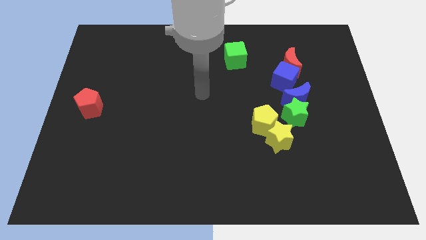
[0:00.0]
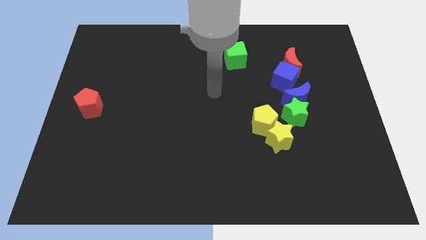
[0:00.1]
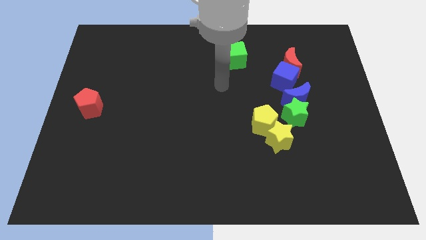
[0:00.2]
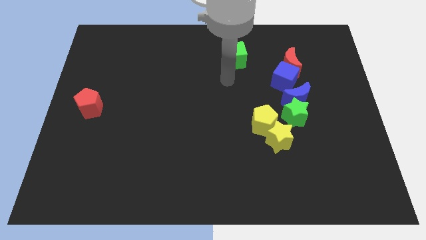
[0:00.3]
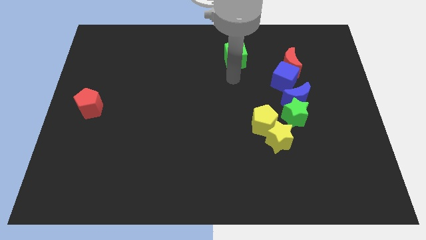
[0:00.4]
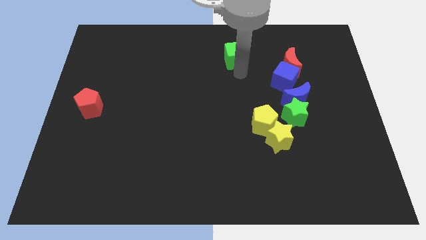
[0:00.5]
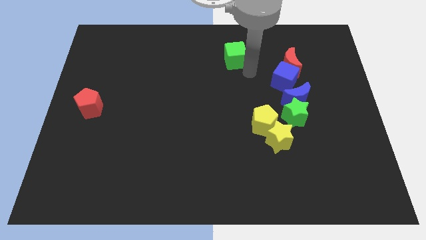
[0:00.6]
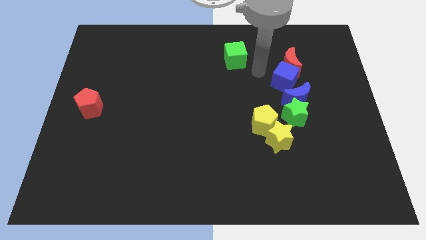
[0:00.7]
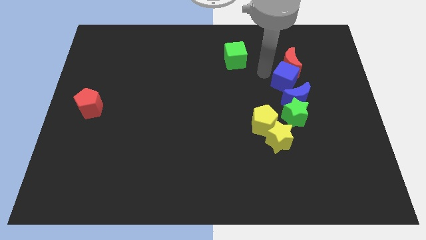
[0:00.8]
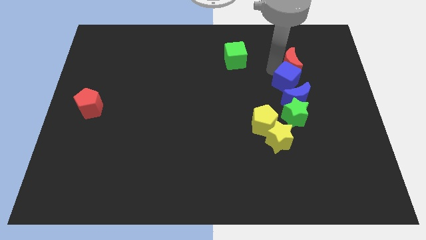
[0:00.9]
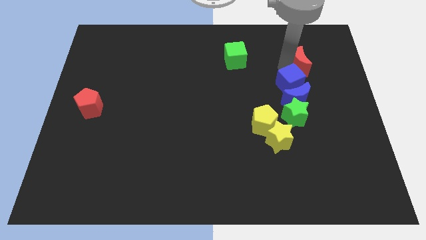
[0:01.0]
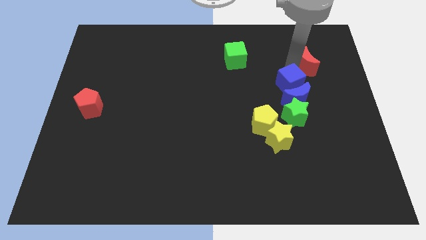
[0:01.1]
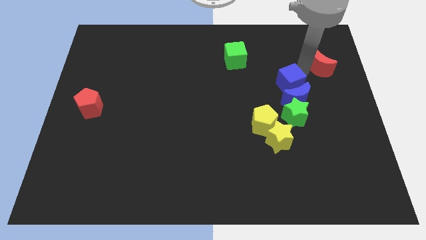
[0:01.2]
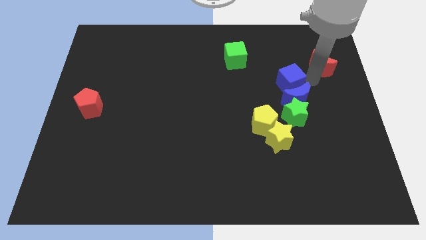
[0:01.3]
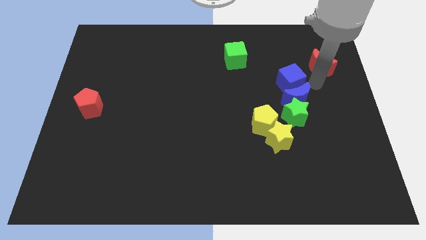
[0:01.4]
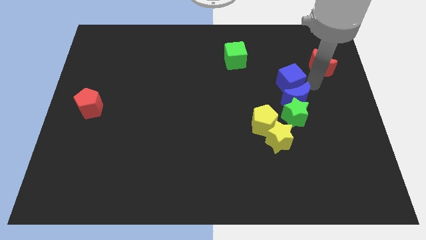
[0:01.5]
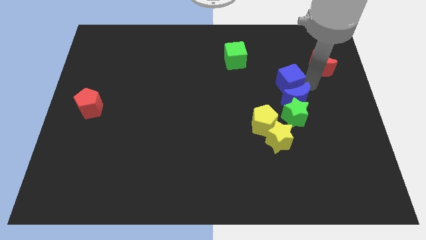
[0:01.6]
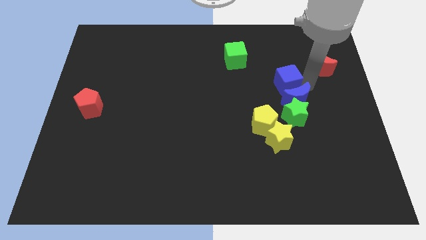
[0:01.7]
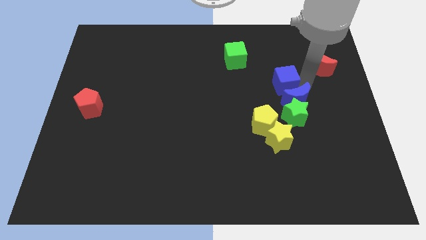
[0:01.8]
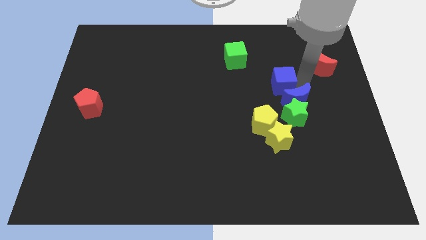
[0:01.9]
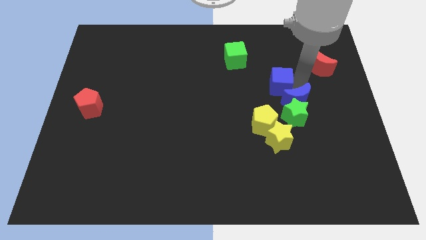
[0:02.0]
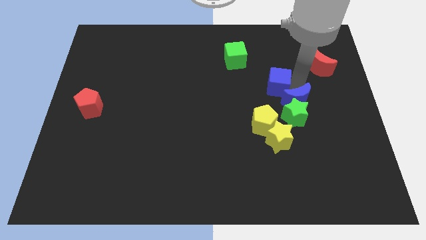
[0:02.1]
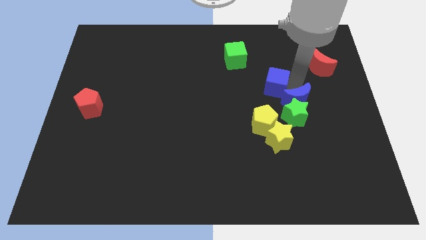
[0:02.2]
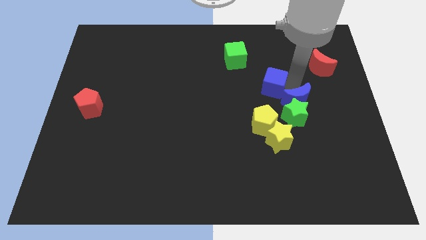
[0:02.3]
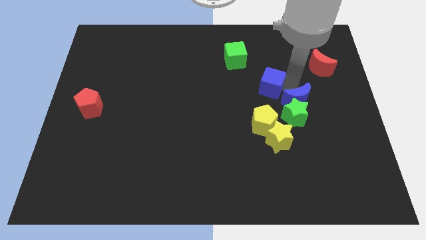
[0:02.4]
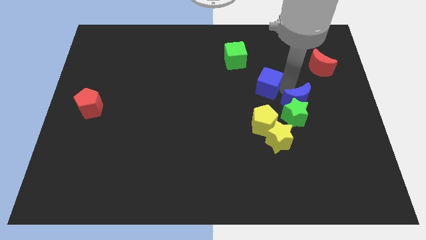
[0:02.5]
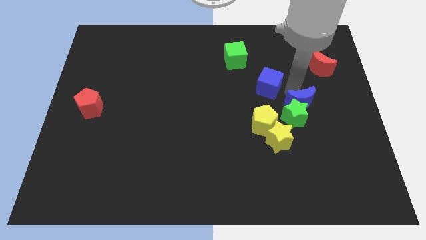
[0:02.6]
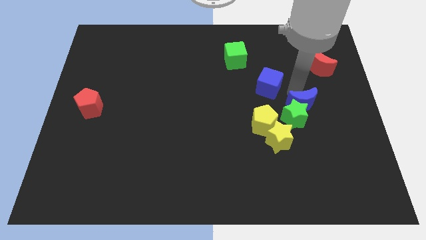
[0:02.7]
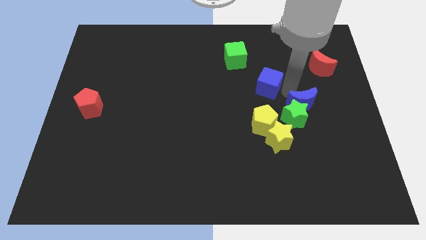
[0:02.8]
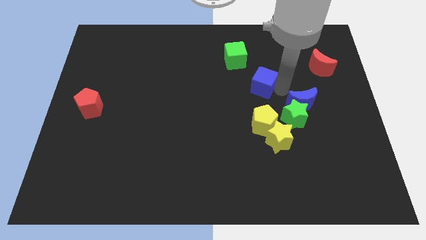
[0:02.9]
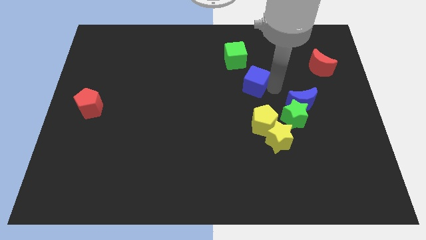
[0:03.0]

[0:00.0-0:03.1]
slightly push the blue cube to the left

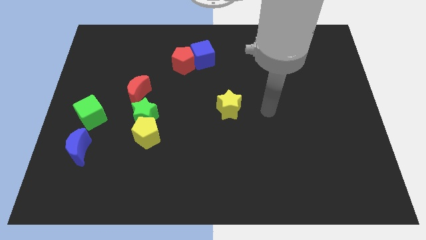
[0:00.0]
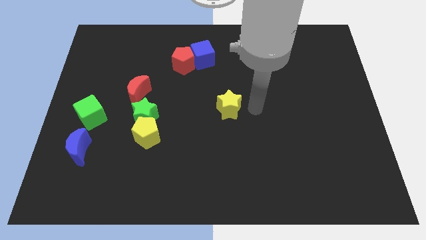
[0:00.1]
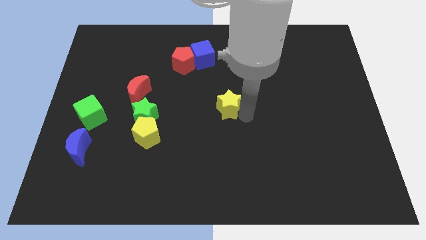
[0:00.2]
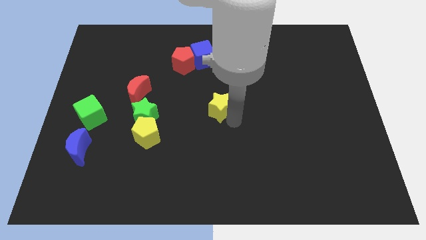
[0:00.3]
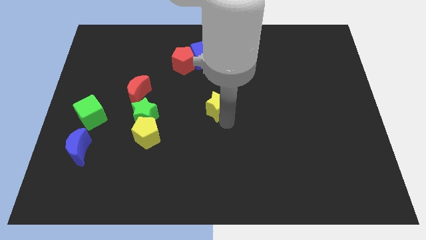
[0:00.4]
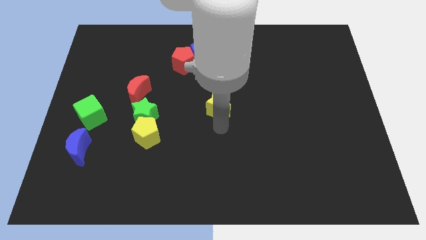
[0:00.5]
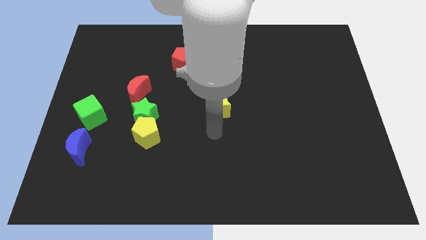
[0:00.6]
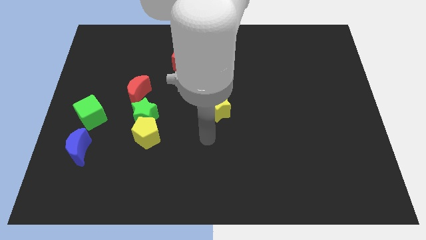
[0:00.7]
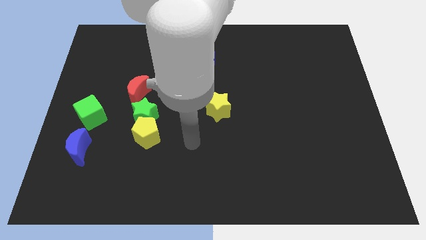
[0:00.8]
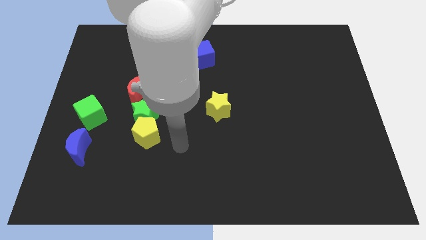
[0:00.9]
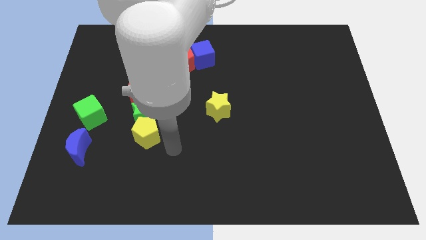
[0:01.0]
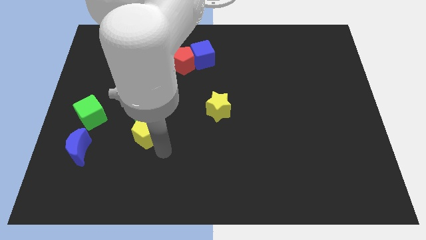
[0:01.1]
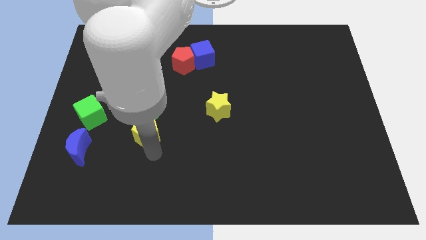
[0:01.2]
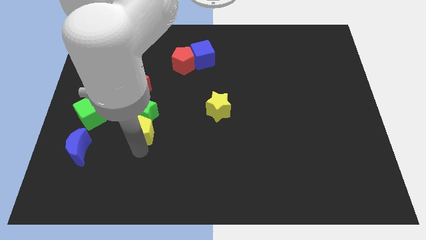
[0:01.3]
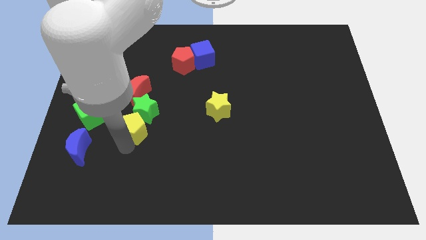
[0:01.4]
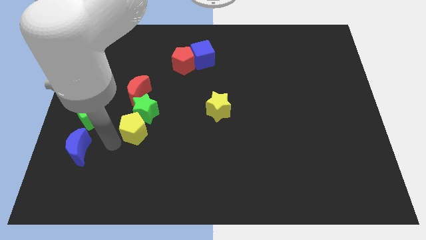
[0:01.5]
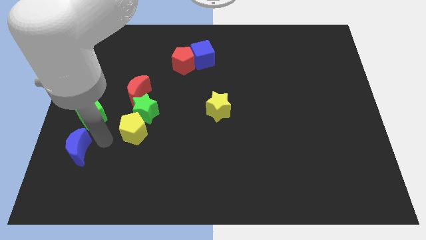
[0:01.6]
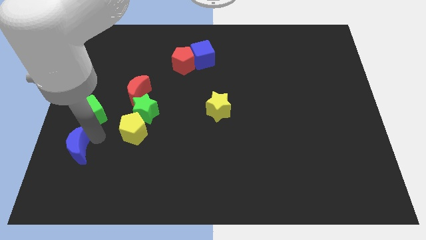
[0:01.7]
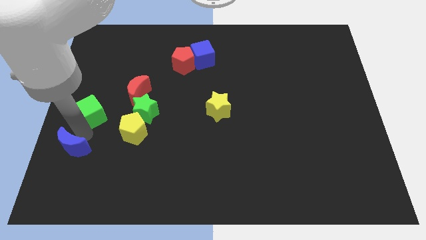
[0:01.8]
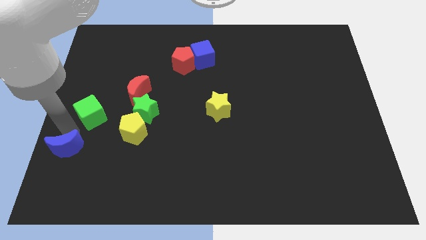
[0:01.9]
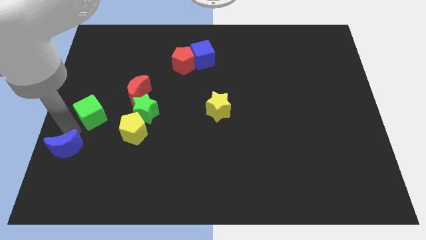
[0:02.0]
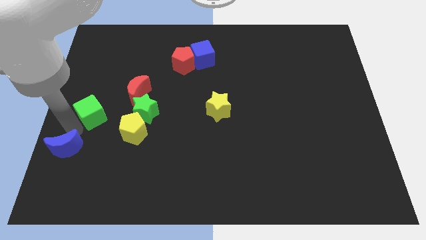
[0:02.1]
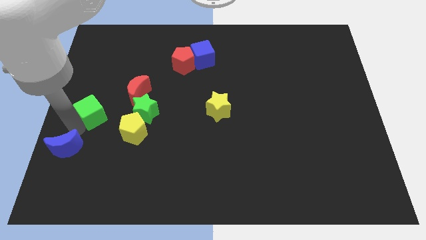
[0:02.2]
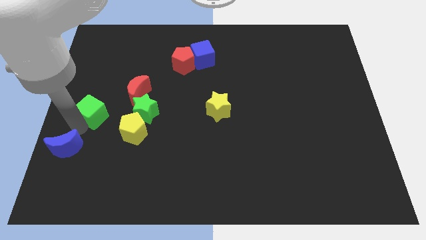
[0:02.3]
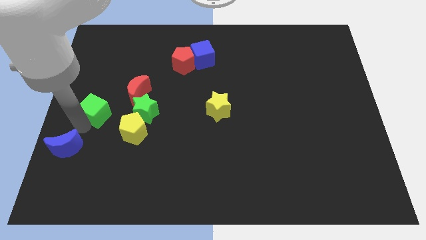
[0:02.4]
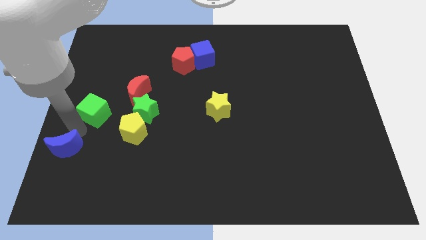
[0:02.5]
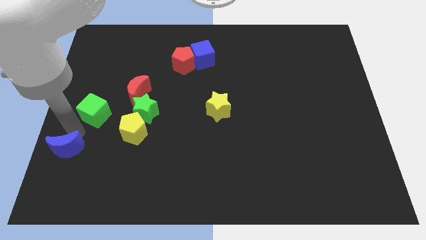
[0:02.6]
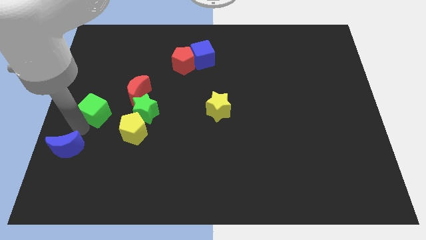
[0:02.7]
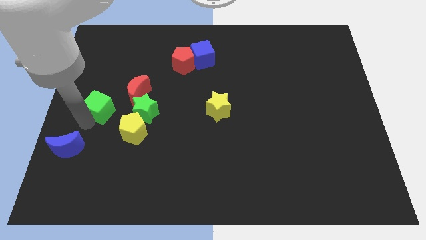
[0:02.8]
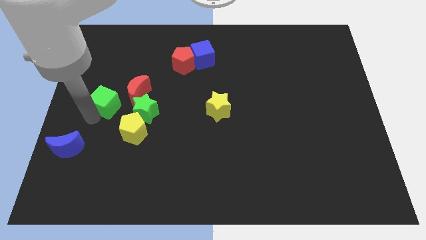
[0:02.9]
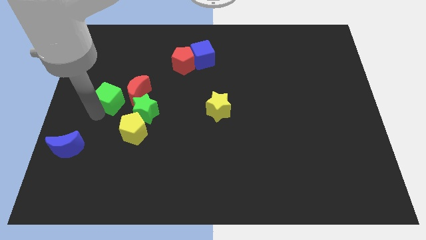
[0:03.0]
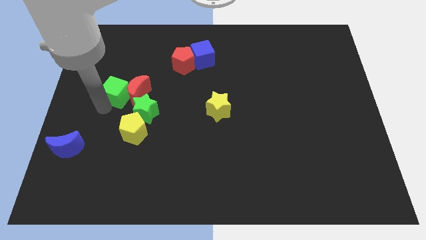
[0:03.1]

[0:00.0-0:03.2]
slide the green cube up and right slightly

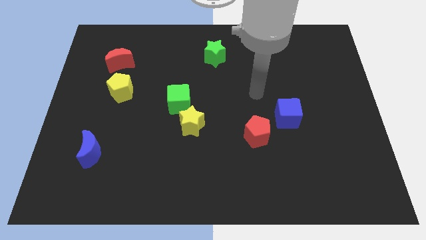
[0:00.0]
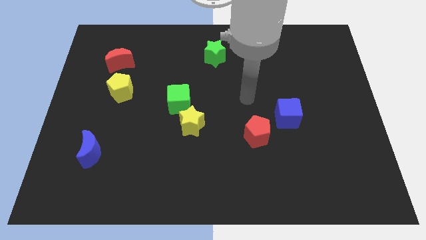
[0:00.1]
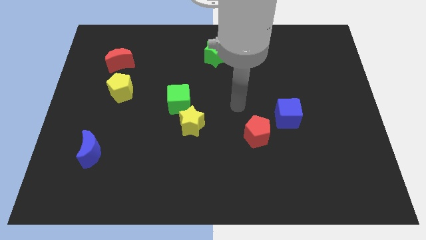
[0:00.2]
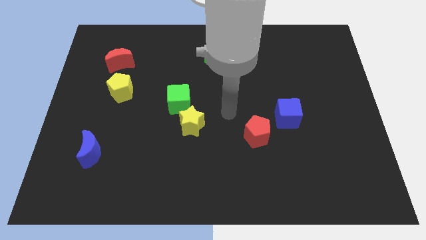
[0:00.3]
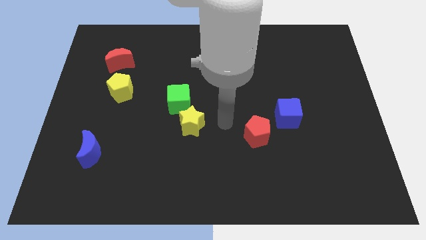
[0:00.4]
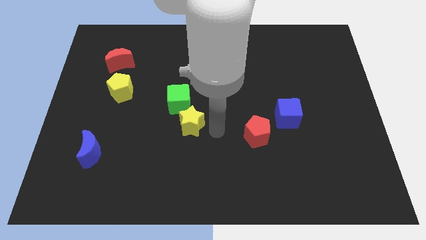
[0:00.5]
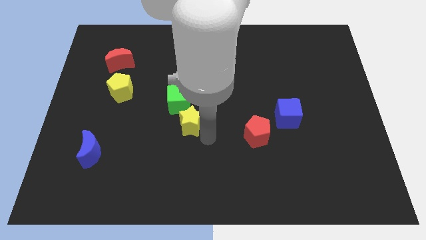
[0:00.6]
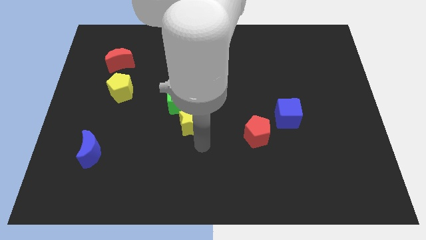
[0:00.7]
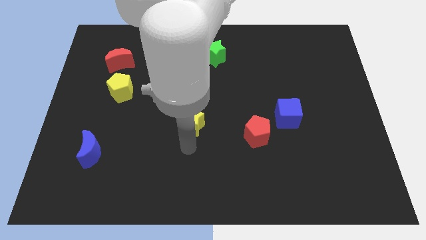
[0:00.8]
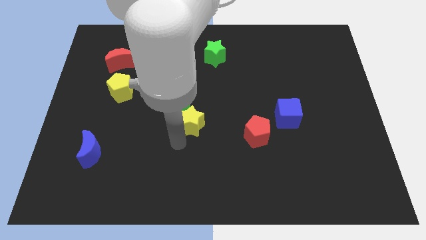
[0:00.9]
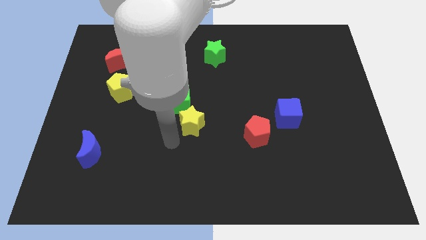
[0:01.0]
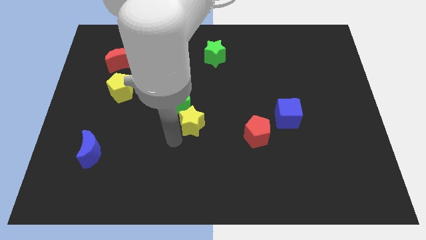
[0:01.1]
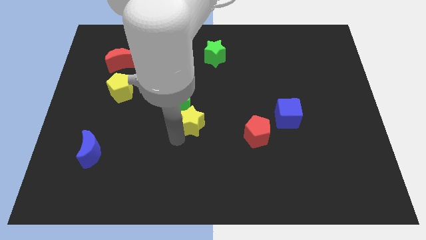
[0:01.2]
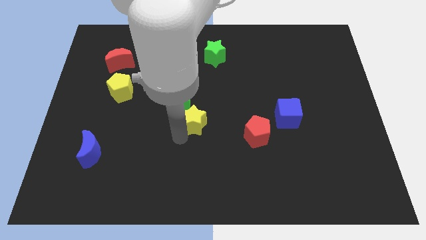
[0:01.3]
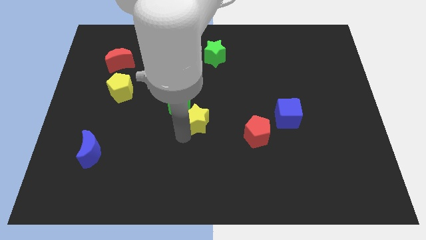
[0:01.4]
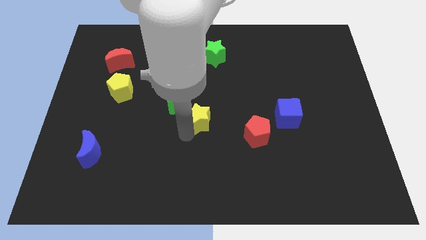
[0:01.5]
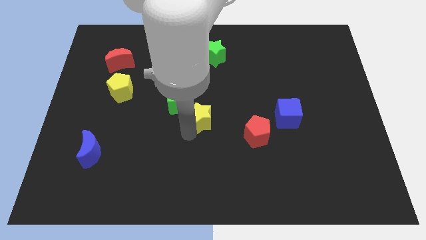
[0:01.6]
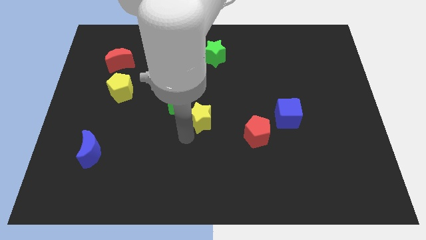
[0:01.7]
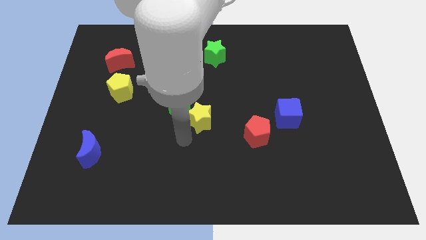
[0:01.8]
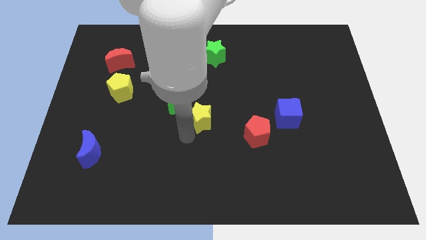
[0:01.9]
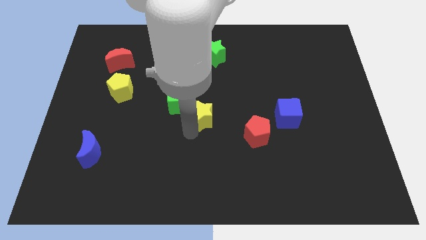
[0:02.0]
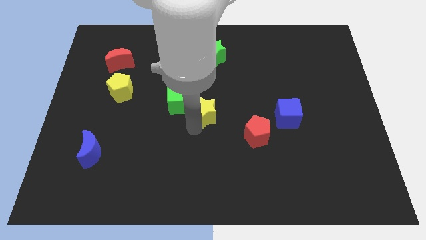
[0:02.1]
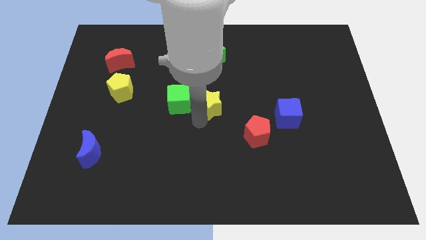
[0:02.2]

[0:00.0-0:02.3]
move the yellow star somewhat upwards and to the right
